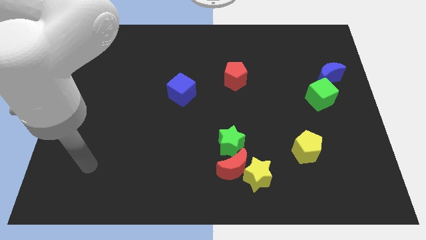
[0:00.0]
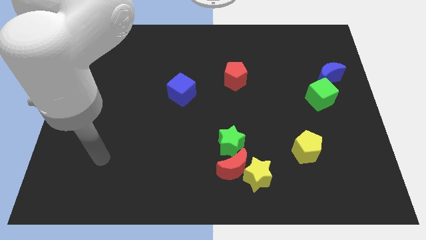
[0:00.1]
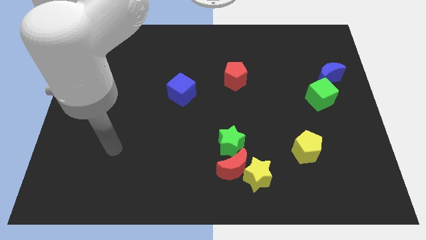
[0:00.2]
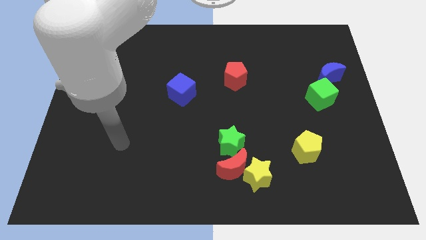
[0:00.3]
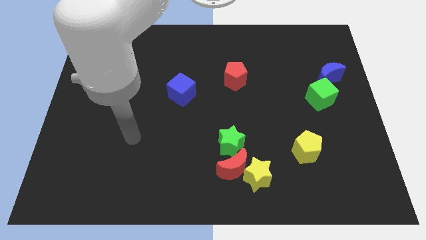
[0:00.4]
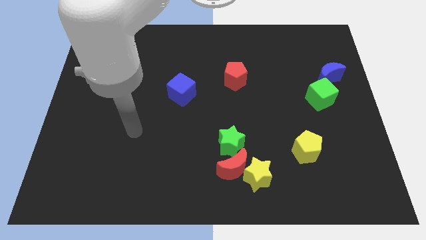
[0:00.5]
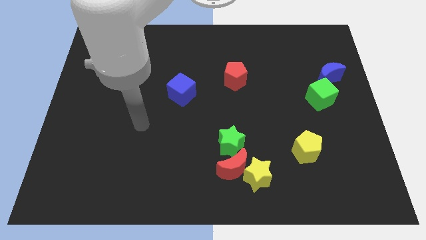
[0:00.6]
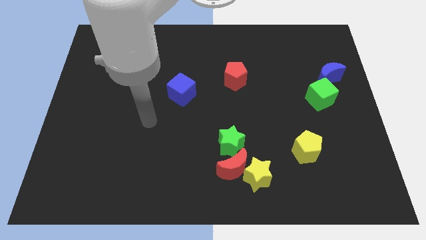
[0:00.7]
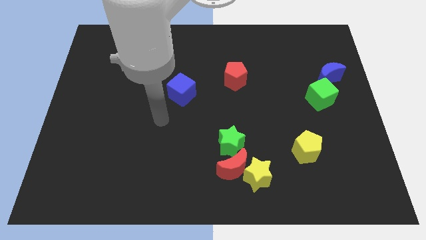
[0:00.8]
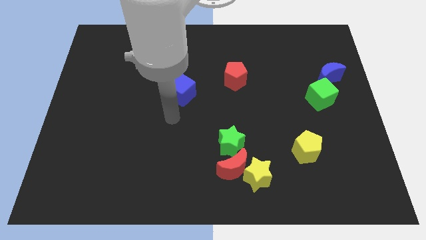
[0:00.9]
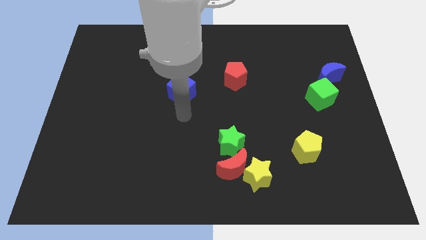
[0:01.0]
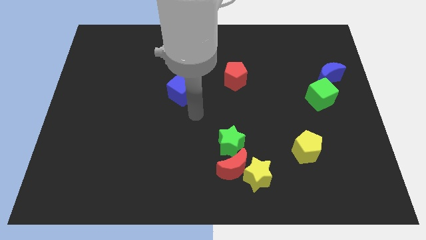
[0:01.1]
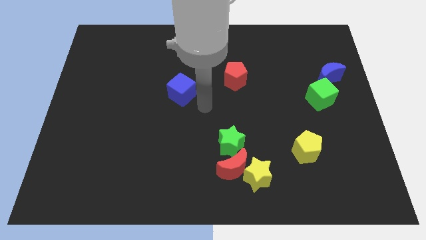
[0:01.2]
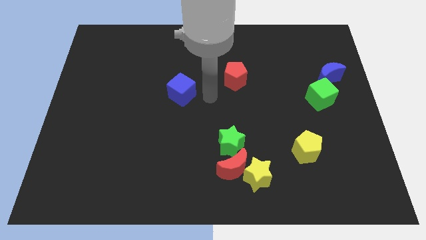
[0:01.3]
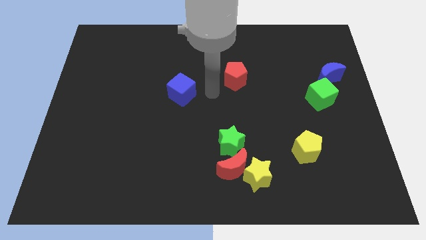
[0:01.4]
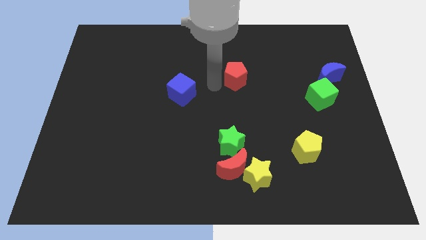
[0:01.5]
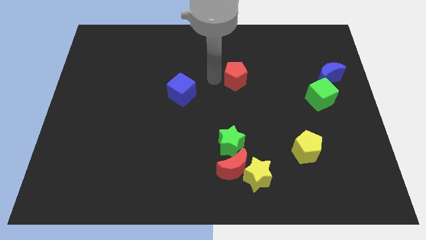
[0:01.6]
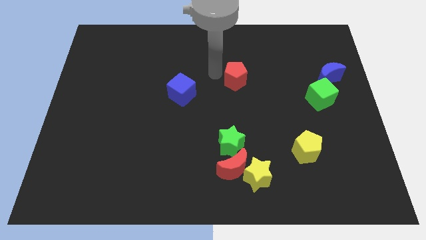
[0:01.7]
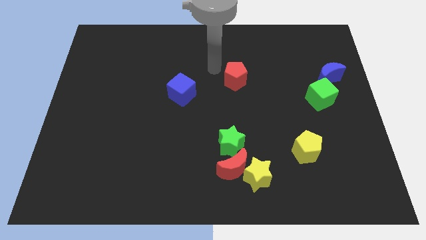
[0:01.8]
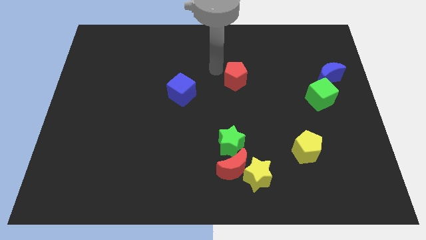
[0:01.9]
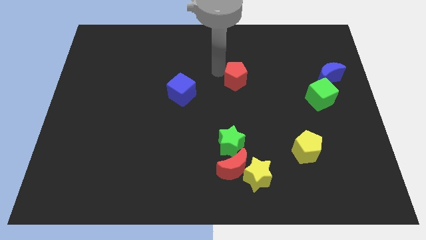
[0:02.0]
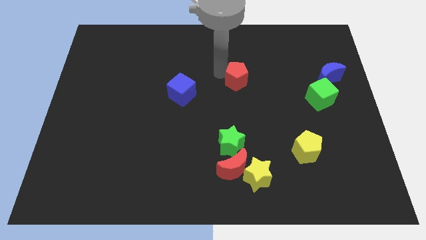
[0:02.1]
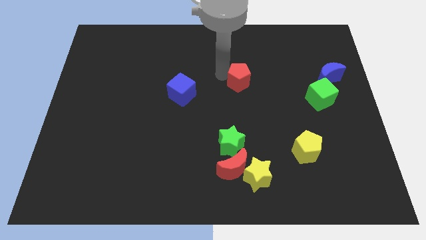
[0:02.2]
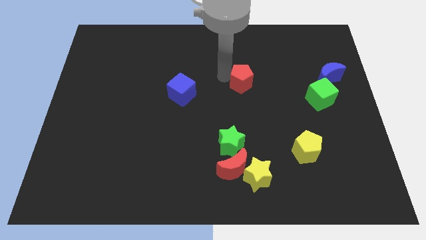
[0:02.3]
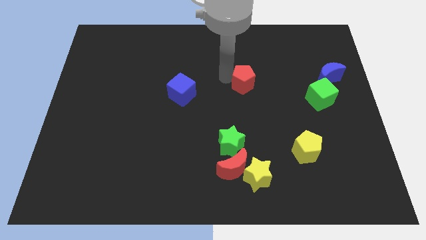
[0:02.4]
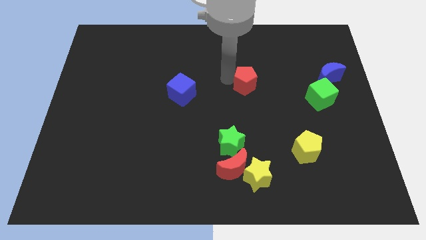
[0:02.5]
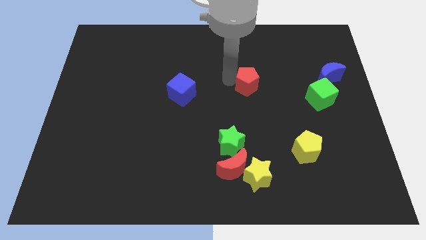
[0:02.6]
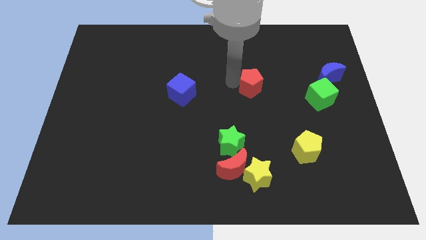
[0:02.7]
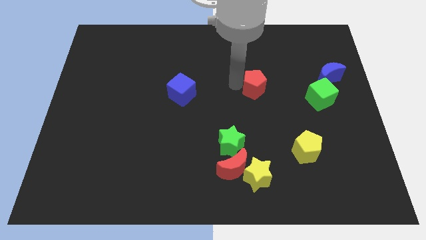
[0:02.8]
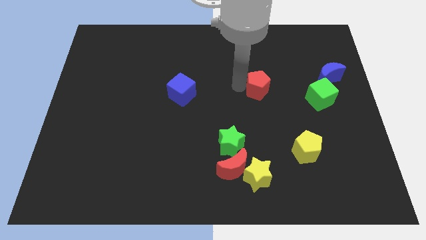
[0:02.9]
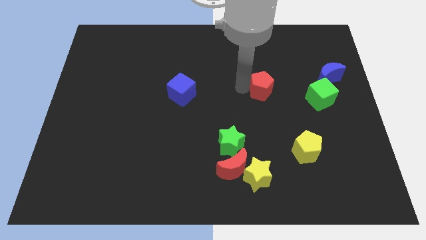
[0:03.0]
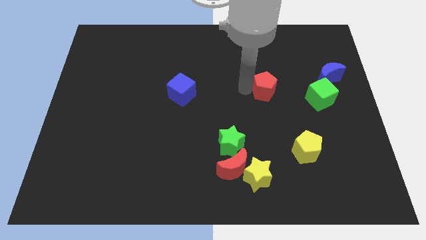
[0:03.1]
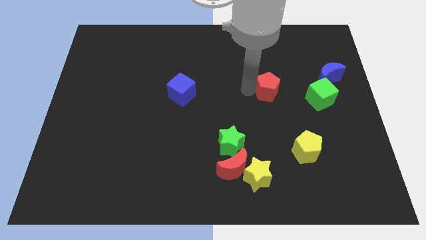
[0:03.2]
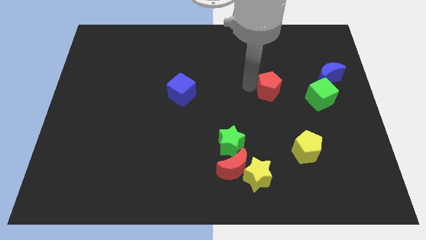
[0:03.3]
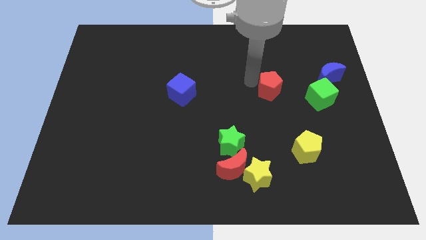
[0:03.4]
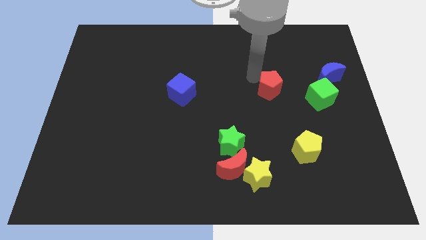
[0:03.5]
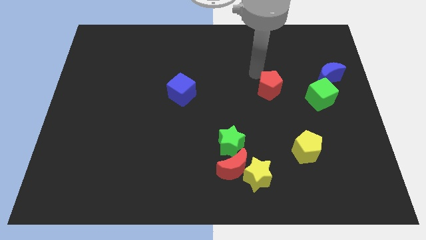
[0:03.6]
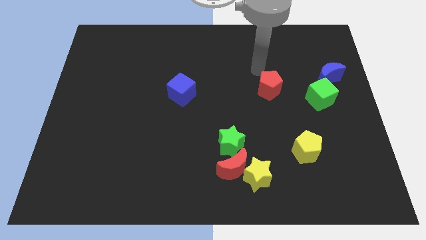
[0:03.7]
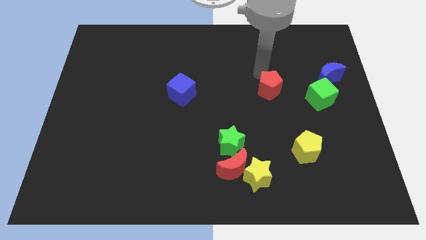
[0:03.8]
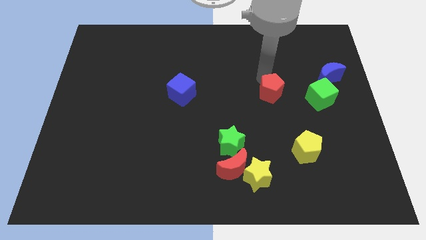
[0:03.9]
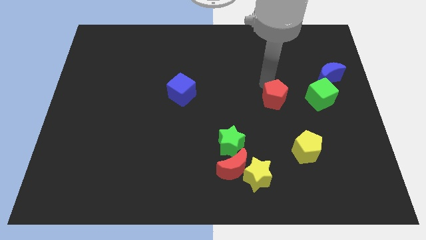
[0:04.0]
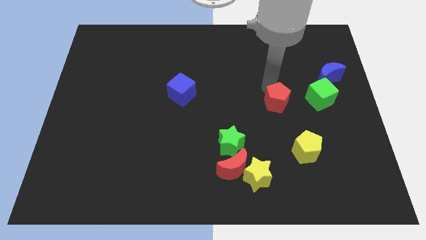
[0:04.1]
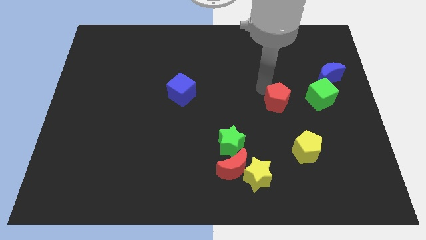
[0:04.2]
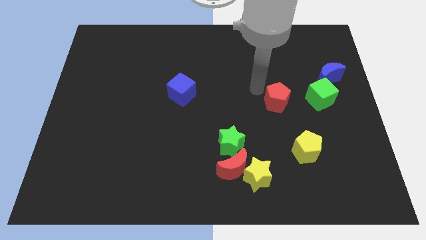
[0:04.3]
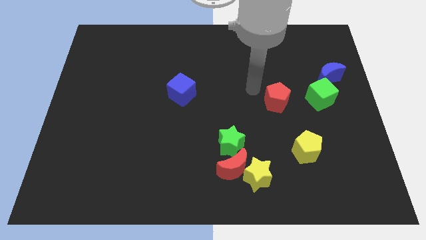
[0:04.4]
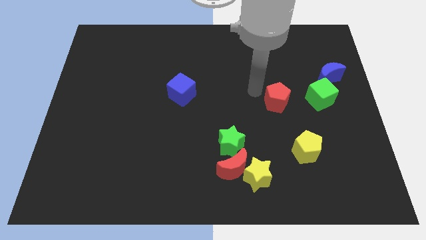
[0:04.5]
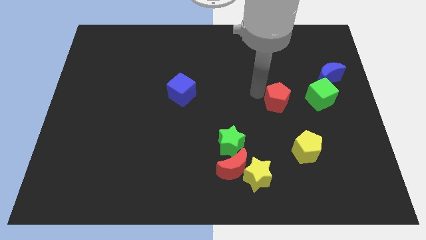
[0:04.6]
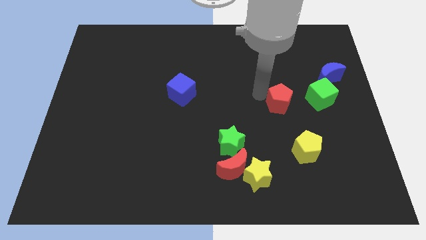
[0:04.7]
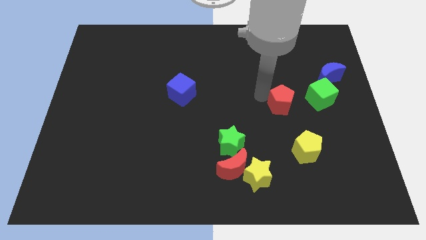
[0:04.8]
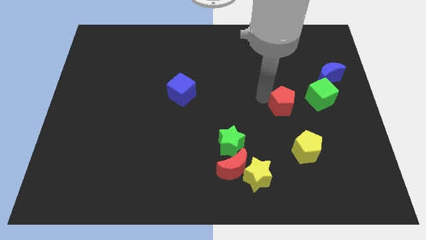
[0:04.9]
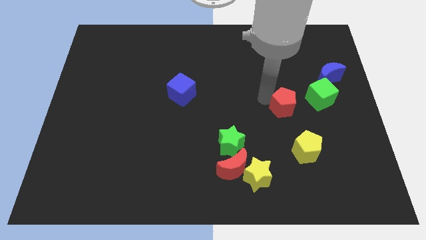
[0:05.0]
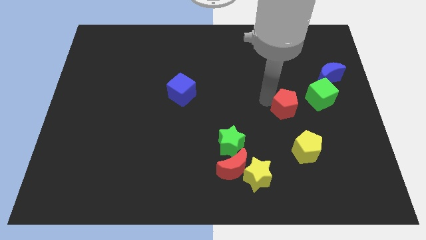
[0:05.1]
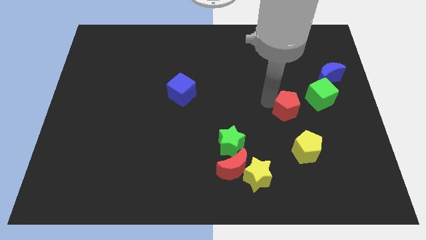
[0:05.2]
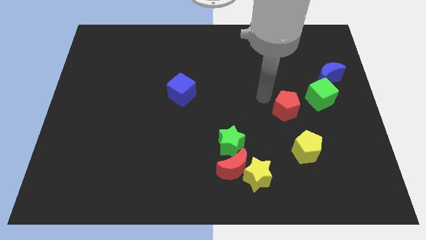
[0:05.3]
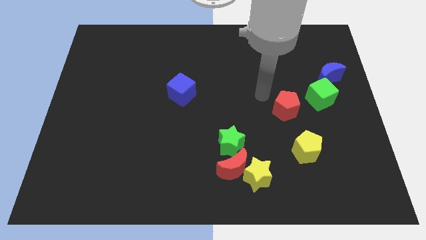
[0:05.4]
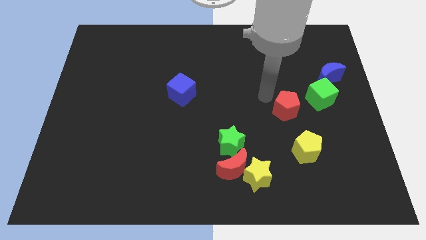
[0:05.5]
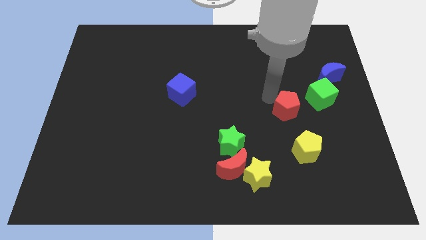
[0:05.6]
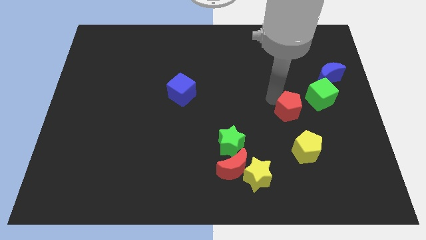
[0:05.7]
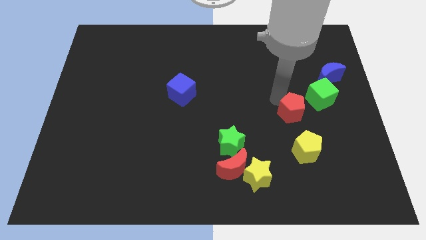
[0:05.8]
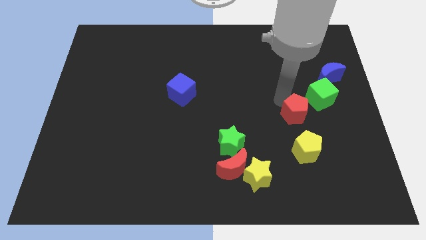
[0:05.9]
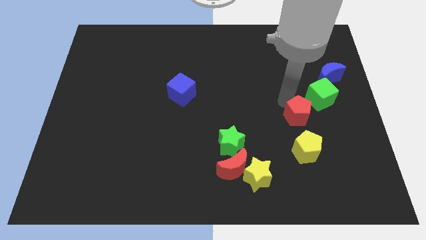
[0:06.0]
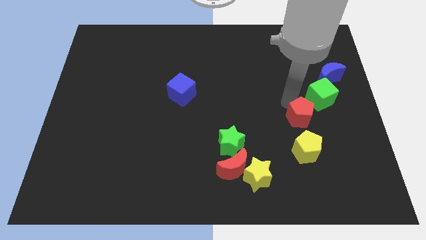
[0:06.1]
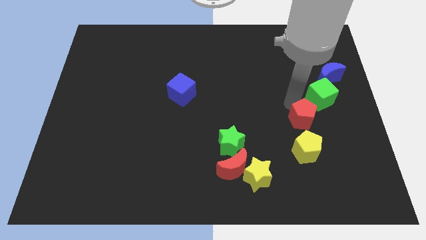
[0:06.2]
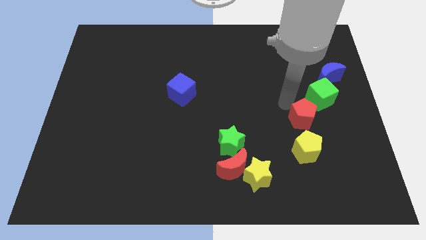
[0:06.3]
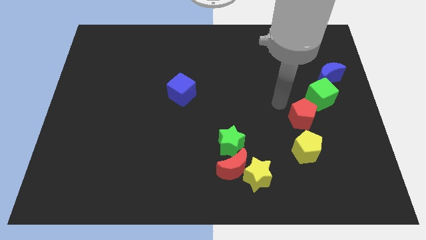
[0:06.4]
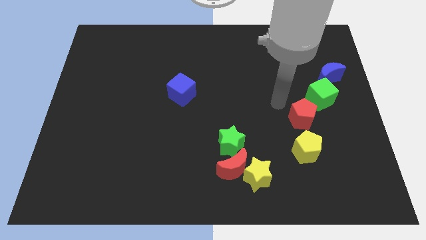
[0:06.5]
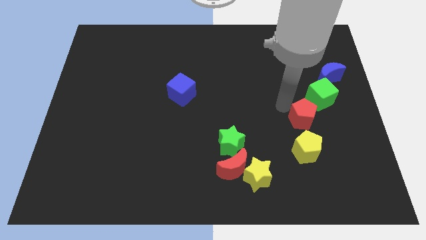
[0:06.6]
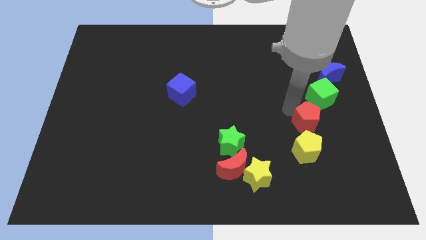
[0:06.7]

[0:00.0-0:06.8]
put the red pentagon diagonally up and to the right of the yellow pentagon

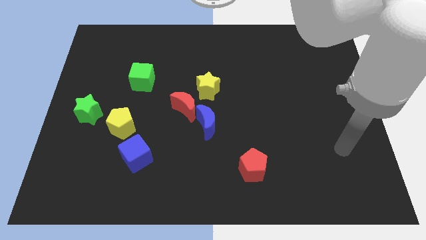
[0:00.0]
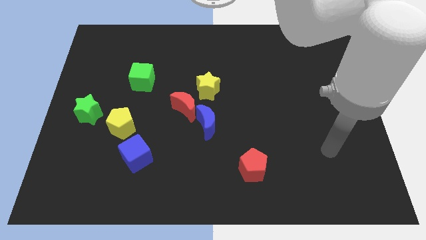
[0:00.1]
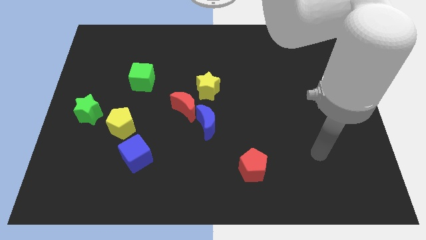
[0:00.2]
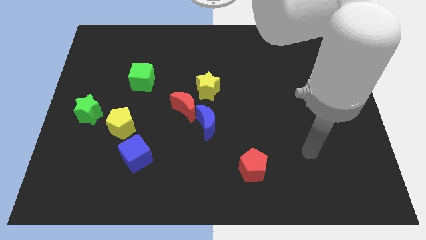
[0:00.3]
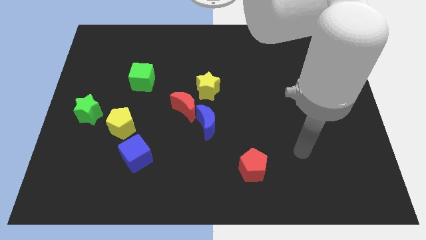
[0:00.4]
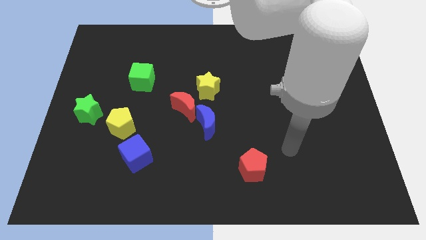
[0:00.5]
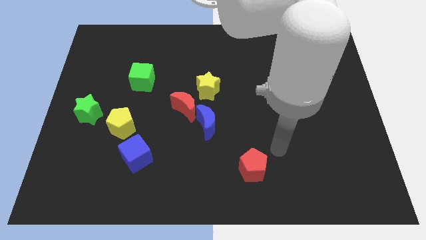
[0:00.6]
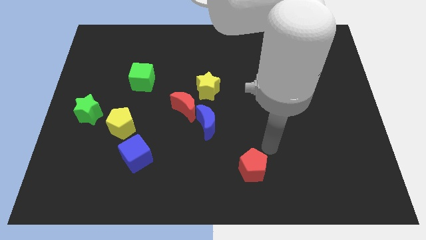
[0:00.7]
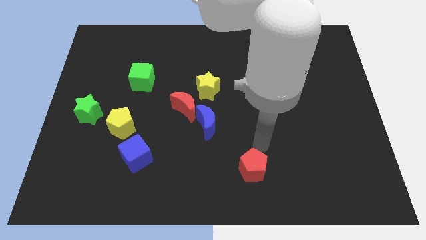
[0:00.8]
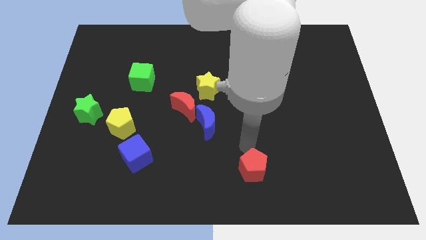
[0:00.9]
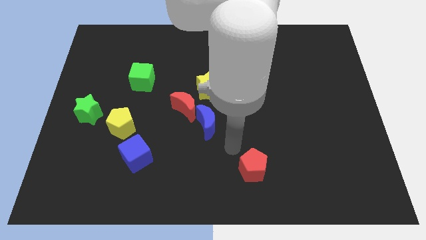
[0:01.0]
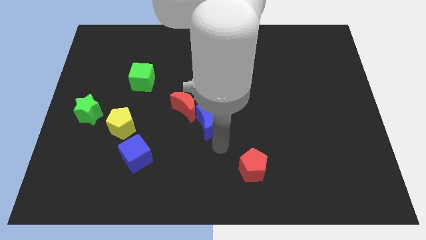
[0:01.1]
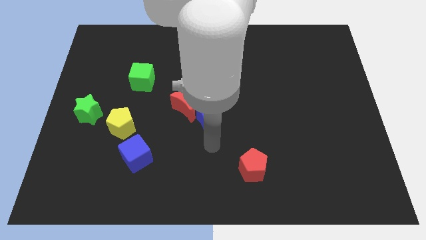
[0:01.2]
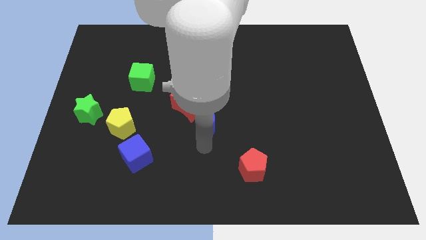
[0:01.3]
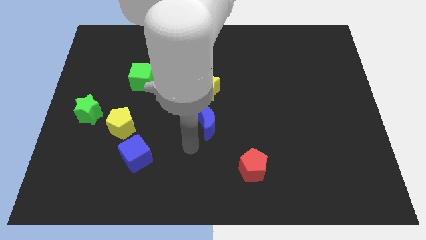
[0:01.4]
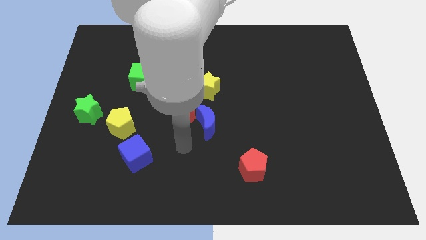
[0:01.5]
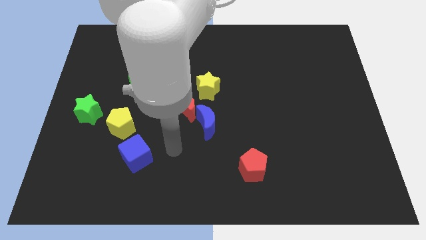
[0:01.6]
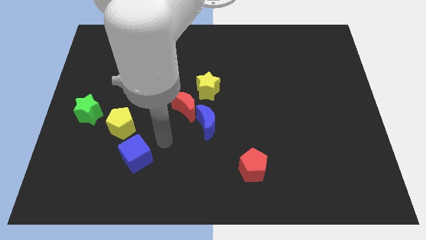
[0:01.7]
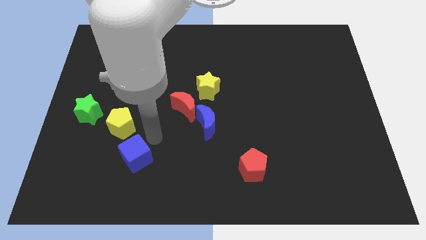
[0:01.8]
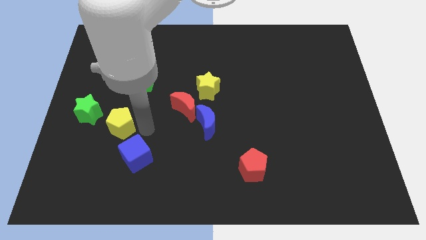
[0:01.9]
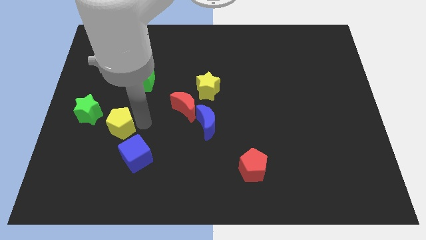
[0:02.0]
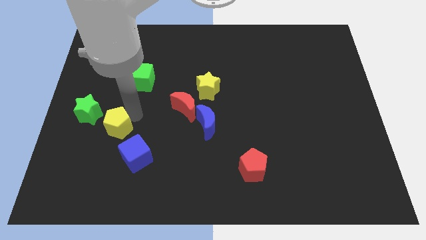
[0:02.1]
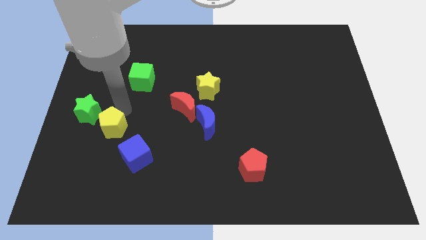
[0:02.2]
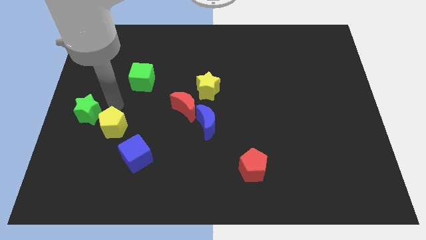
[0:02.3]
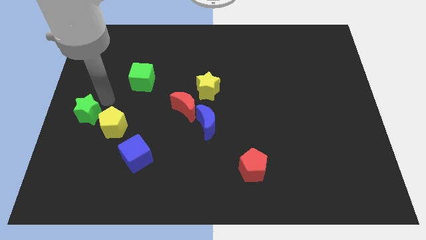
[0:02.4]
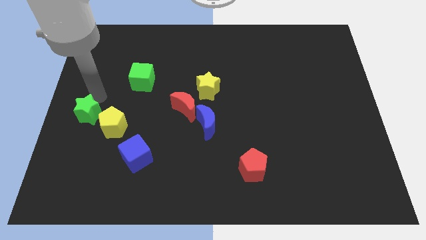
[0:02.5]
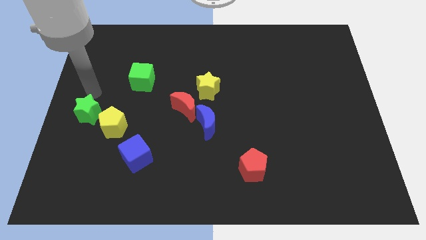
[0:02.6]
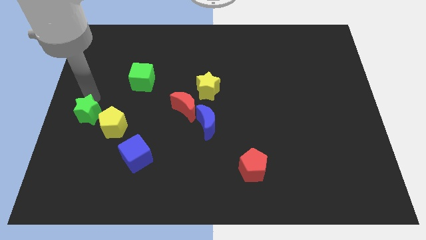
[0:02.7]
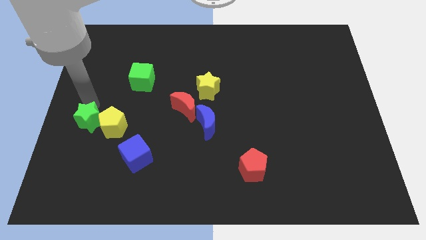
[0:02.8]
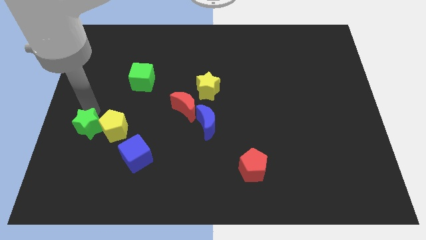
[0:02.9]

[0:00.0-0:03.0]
move the green star to the bottom left side of the yellow pentagon
